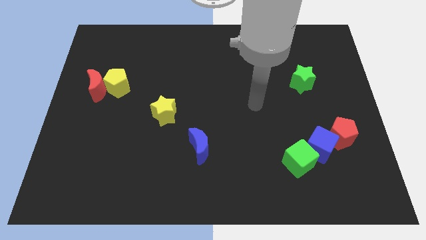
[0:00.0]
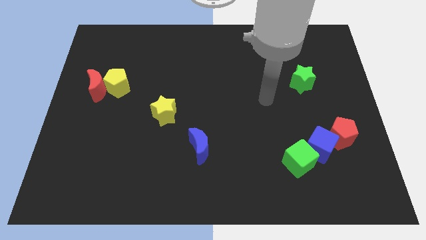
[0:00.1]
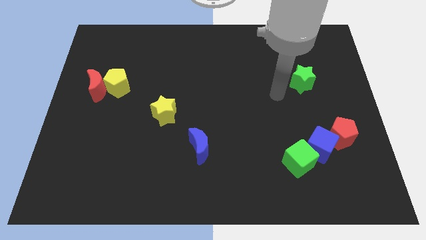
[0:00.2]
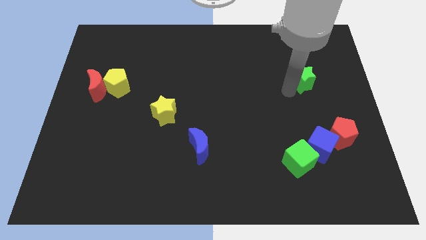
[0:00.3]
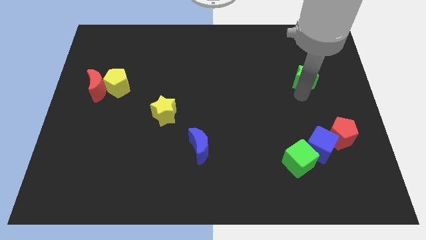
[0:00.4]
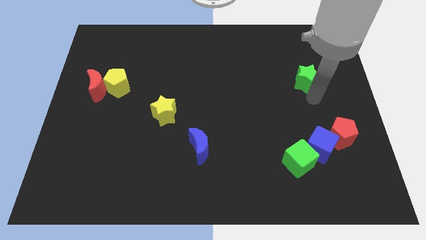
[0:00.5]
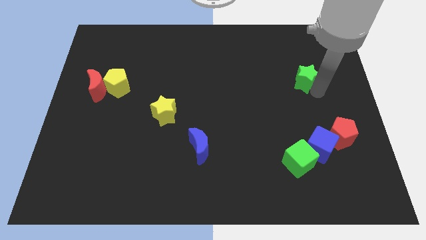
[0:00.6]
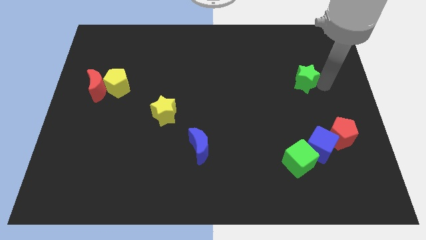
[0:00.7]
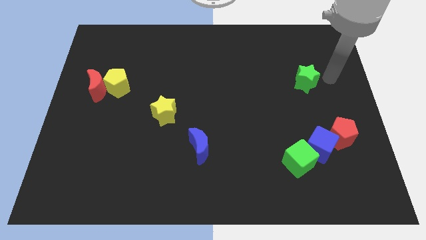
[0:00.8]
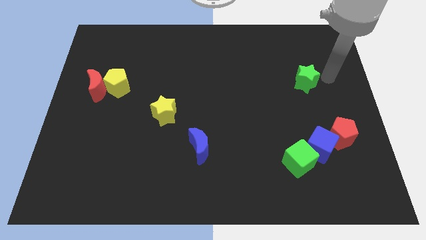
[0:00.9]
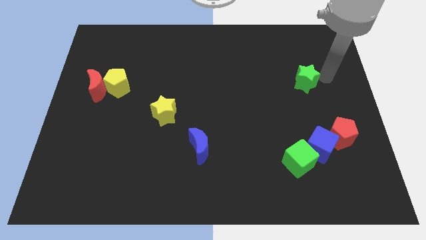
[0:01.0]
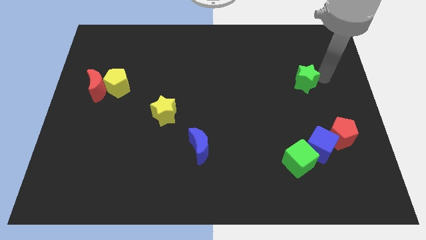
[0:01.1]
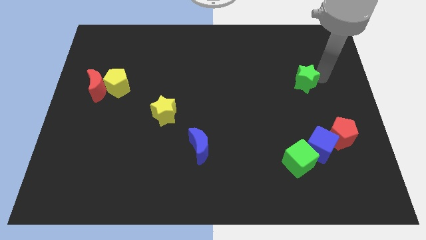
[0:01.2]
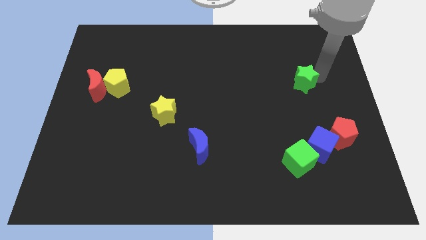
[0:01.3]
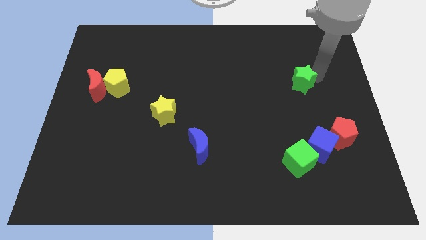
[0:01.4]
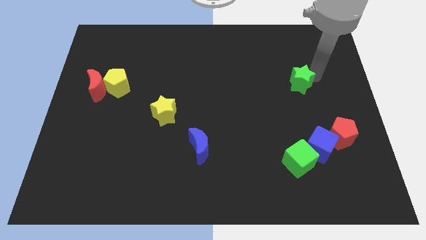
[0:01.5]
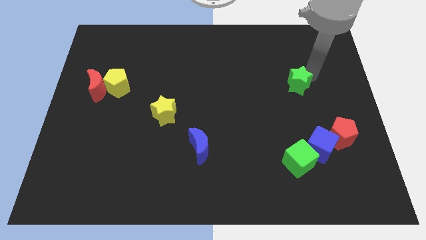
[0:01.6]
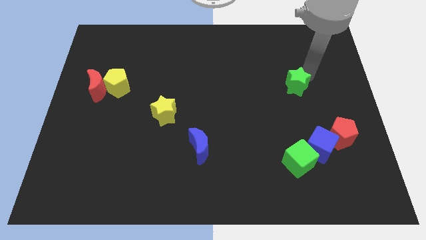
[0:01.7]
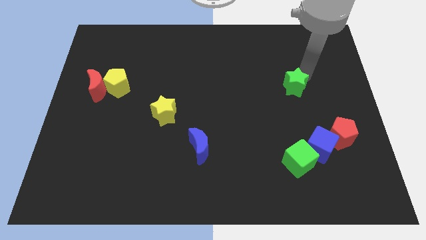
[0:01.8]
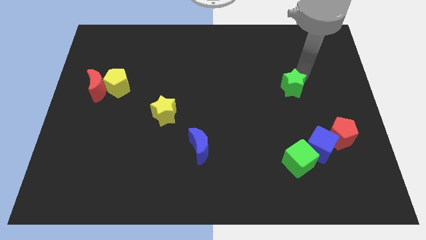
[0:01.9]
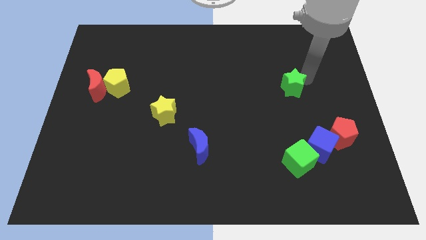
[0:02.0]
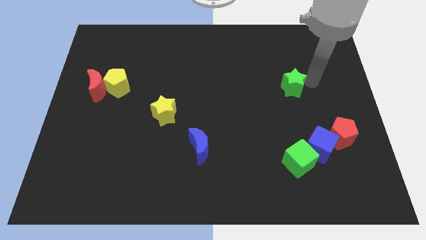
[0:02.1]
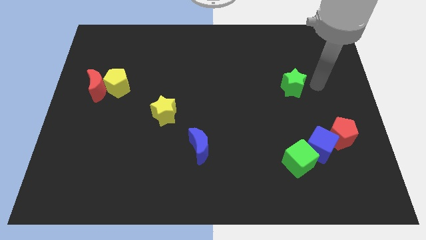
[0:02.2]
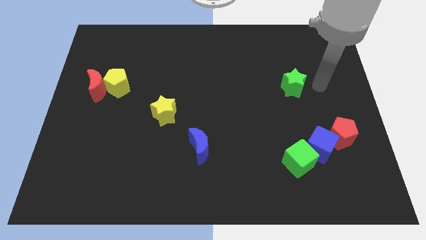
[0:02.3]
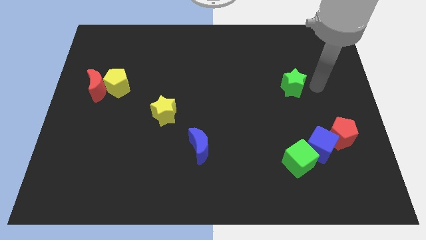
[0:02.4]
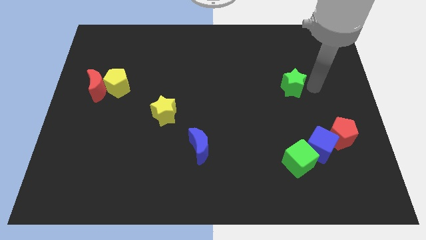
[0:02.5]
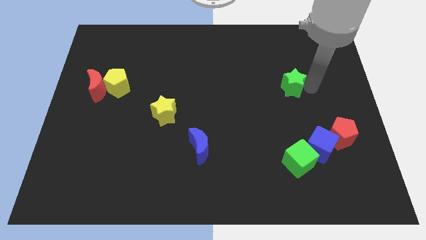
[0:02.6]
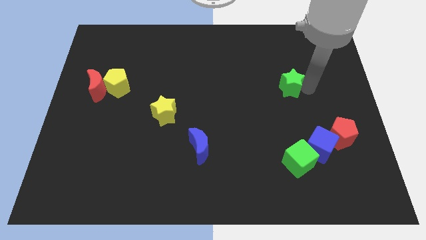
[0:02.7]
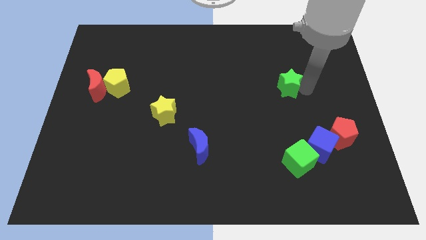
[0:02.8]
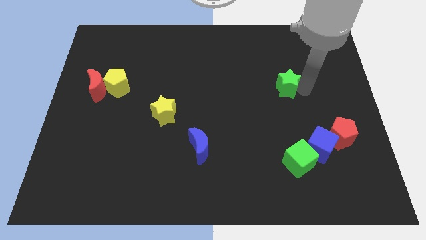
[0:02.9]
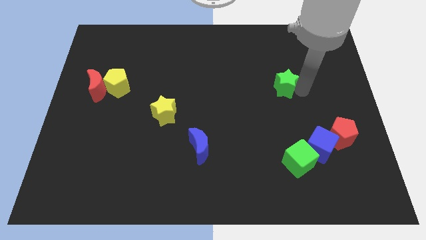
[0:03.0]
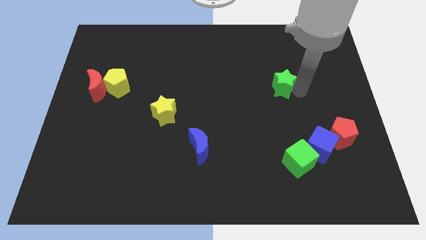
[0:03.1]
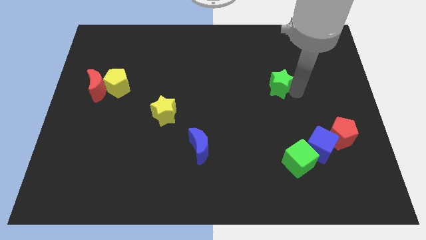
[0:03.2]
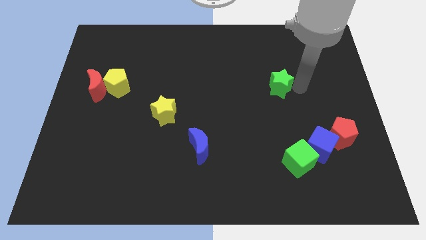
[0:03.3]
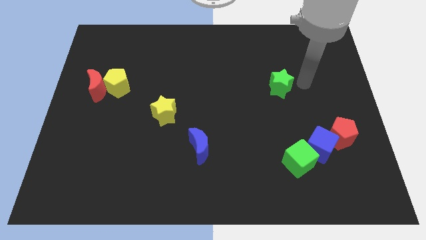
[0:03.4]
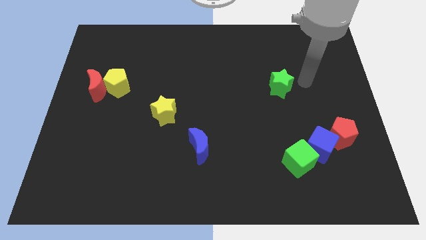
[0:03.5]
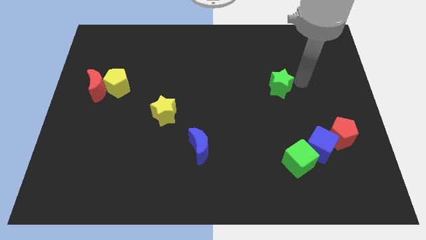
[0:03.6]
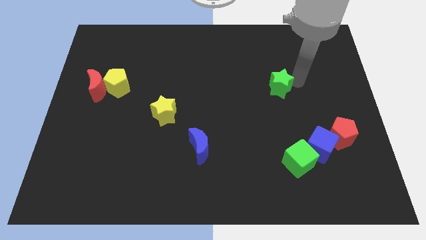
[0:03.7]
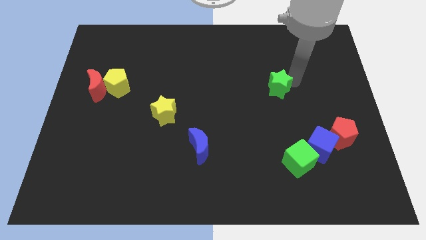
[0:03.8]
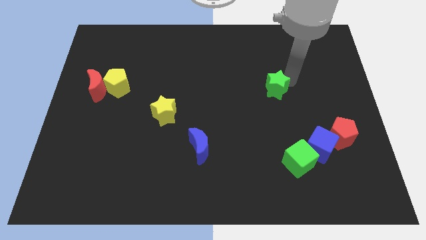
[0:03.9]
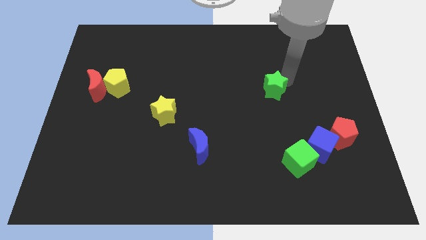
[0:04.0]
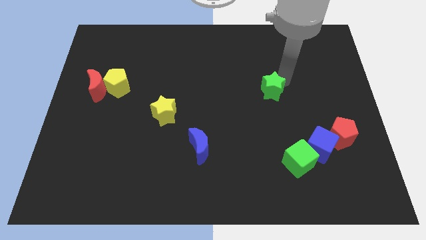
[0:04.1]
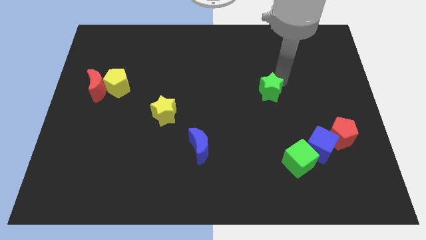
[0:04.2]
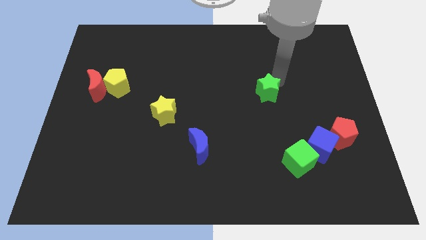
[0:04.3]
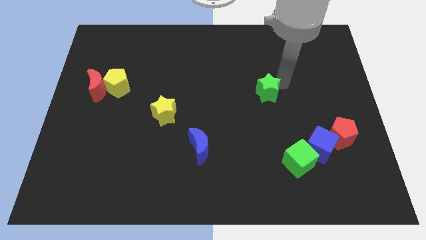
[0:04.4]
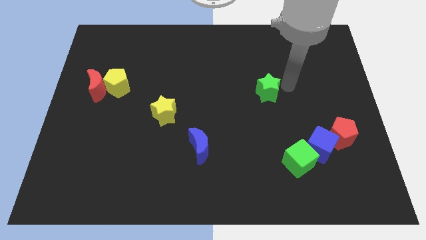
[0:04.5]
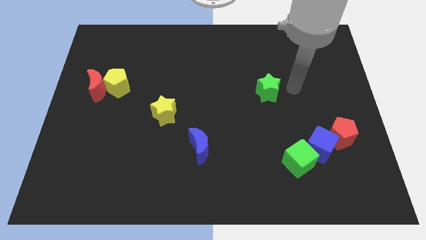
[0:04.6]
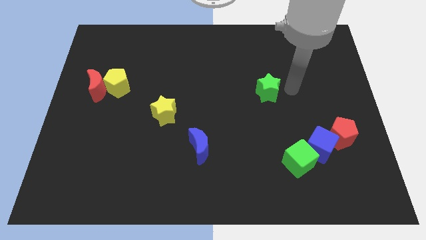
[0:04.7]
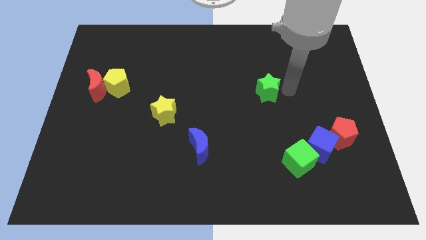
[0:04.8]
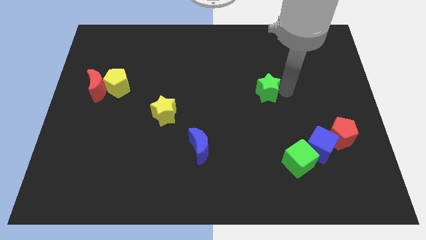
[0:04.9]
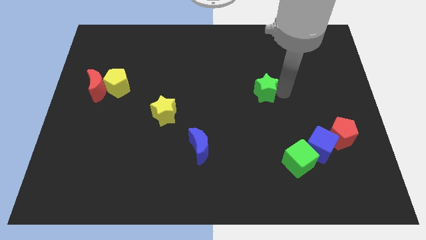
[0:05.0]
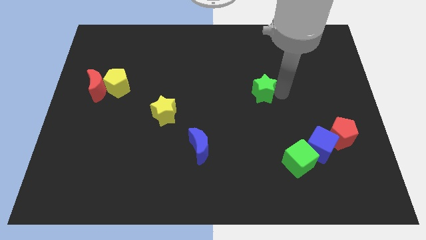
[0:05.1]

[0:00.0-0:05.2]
slide the green star to the center of the board

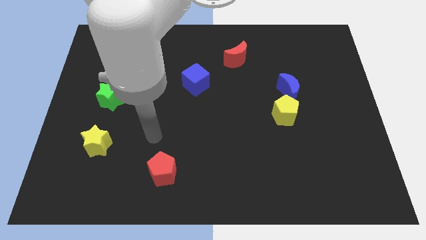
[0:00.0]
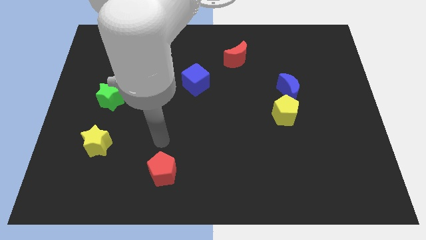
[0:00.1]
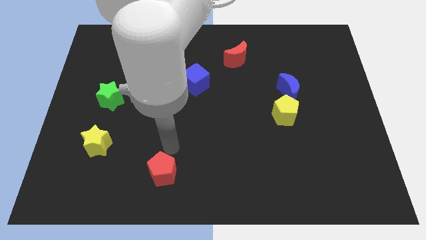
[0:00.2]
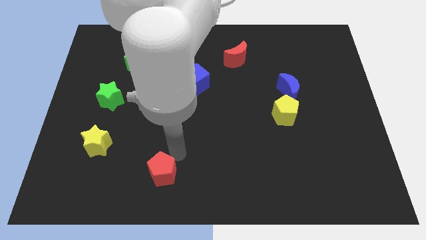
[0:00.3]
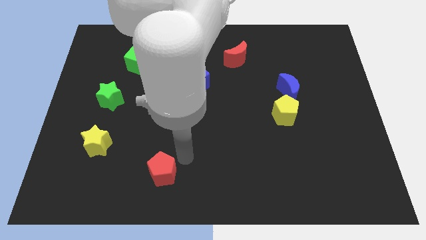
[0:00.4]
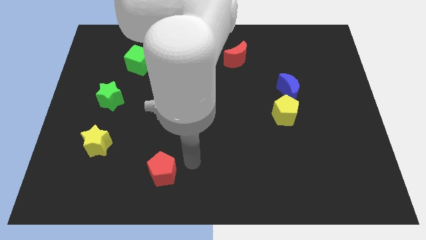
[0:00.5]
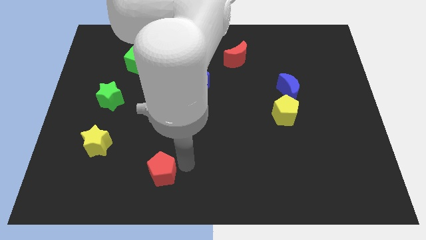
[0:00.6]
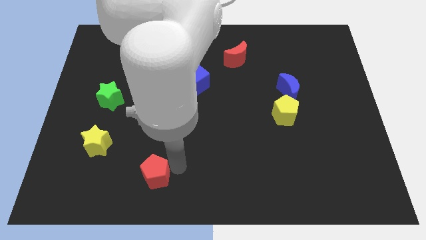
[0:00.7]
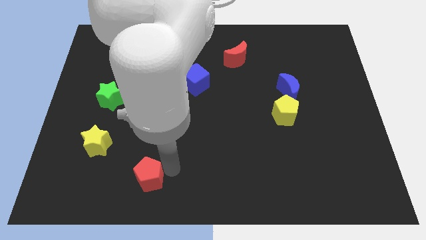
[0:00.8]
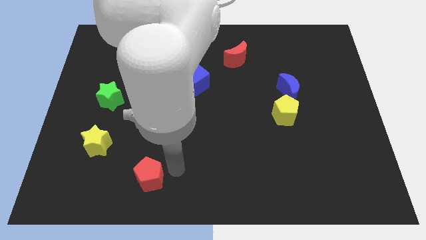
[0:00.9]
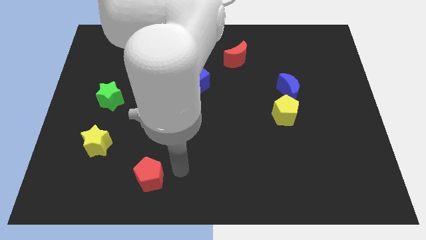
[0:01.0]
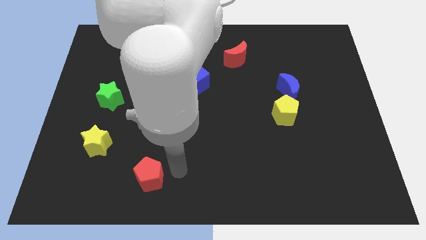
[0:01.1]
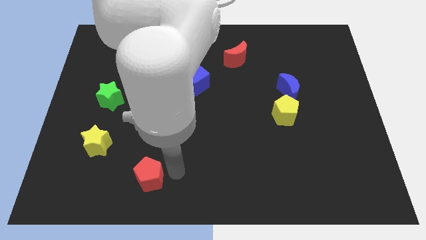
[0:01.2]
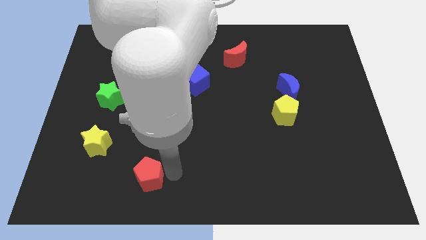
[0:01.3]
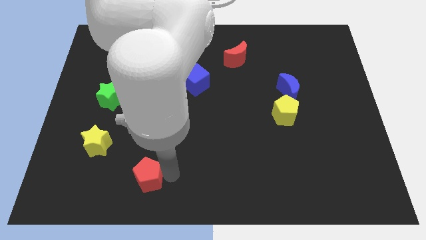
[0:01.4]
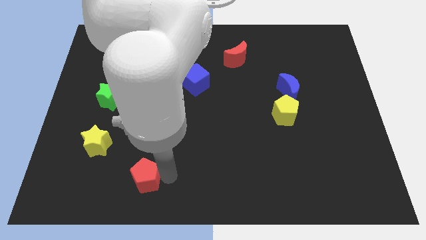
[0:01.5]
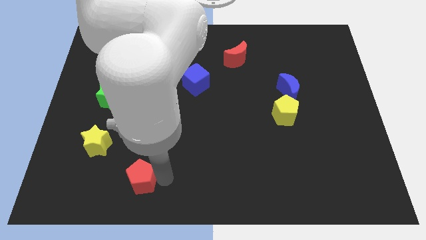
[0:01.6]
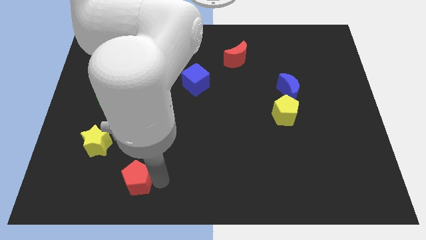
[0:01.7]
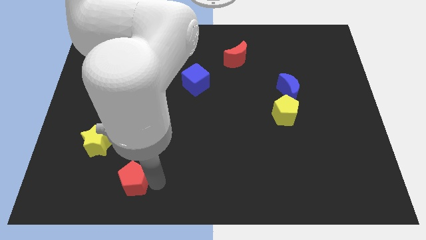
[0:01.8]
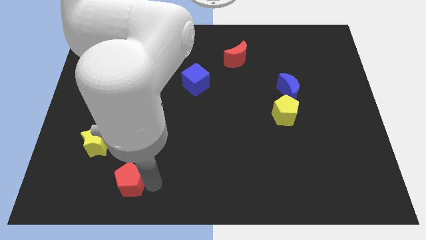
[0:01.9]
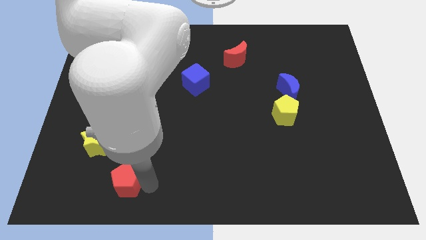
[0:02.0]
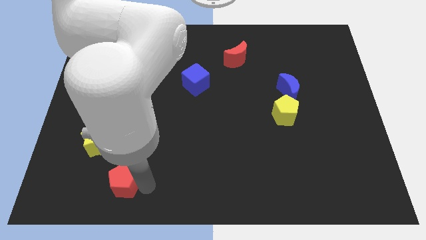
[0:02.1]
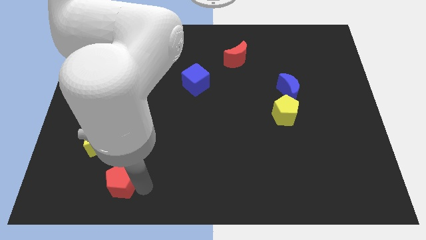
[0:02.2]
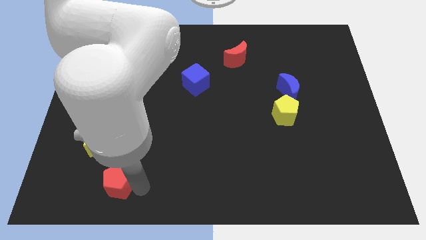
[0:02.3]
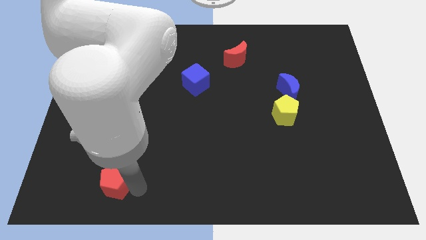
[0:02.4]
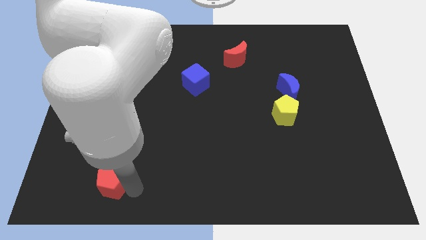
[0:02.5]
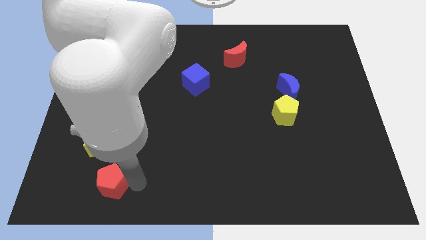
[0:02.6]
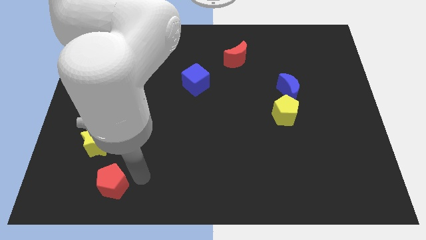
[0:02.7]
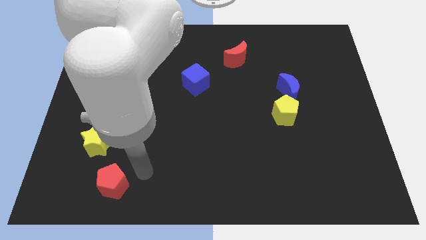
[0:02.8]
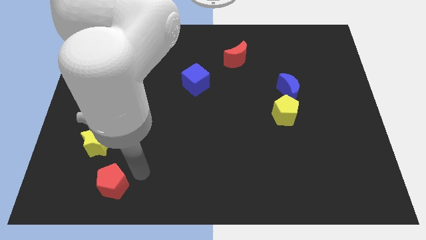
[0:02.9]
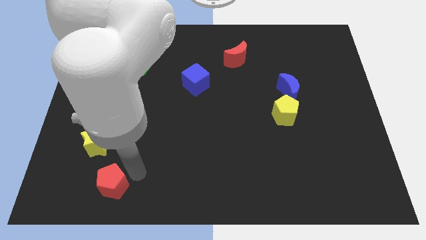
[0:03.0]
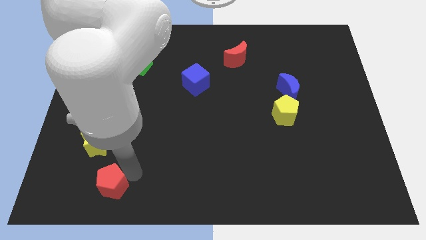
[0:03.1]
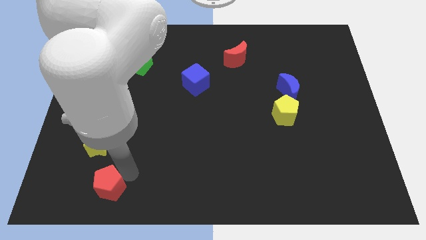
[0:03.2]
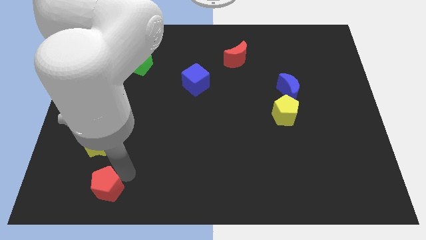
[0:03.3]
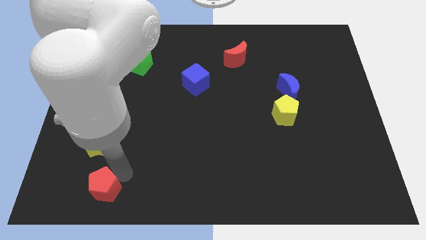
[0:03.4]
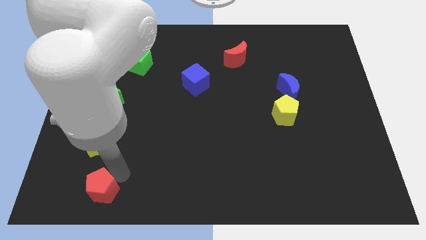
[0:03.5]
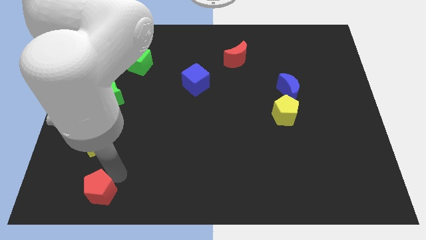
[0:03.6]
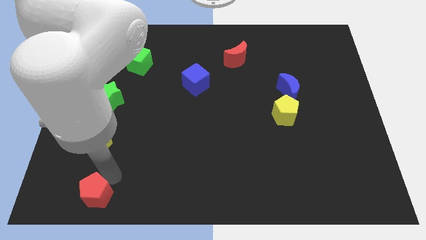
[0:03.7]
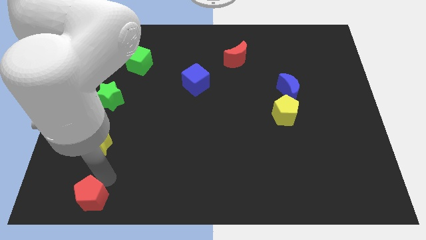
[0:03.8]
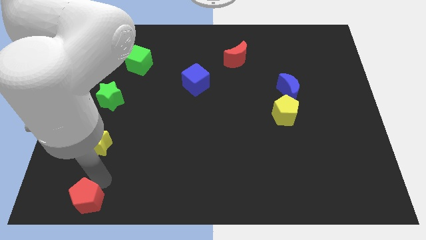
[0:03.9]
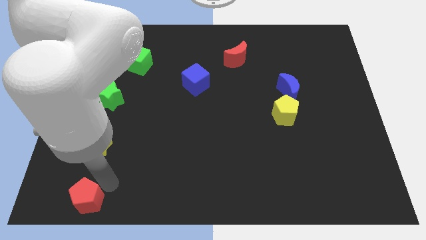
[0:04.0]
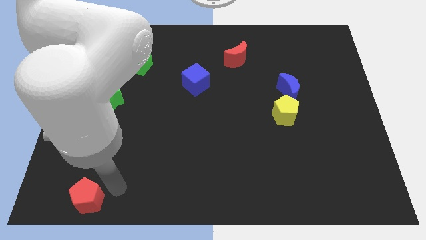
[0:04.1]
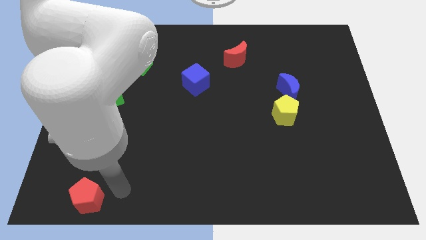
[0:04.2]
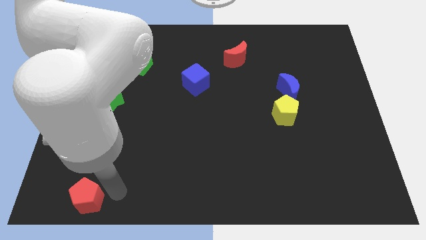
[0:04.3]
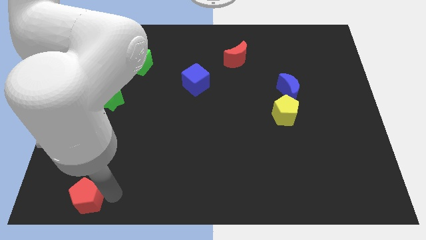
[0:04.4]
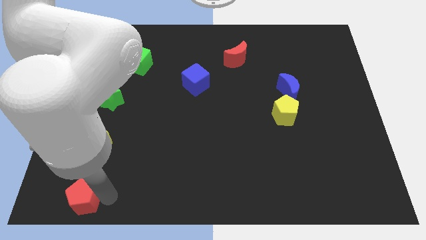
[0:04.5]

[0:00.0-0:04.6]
slide the red pentagon to the lower left corner
